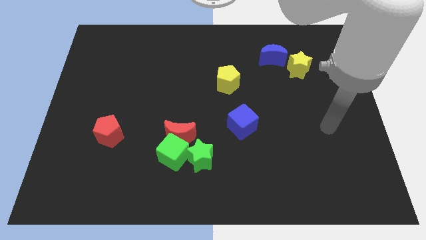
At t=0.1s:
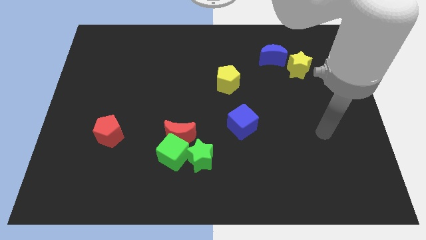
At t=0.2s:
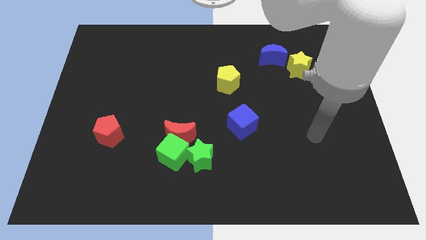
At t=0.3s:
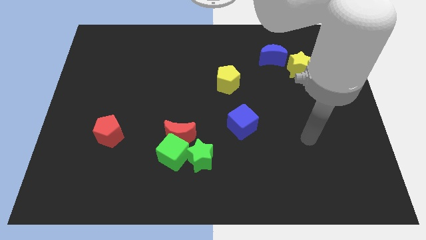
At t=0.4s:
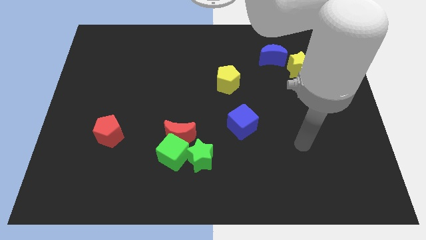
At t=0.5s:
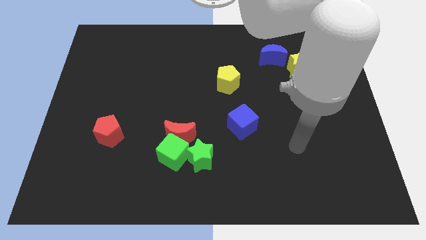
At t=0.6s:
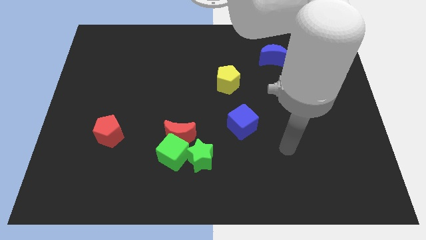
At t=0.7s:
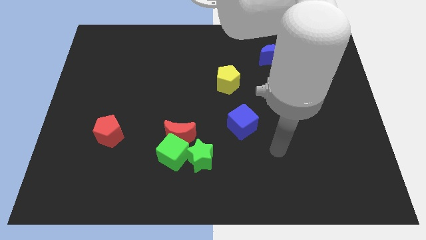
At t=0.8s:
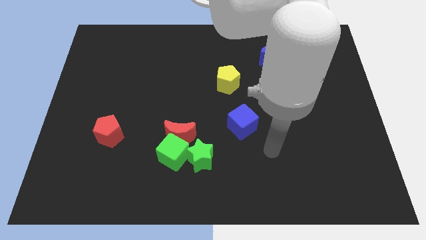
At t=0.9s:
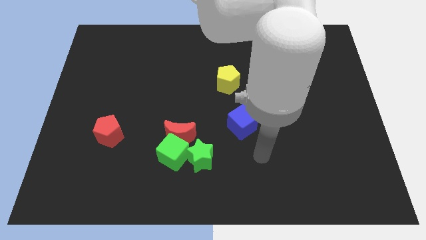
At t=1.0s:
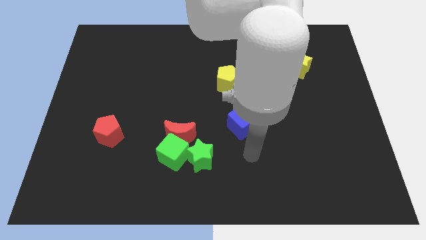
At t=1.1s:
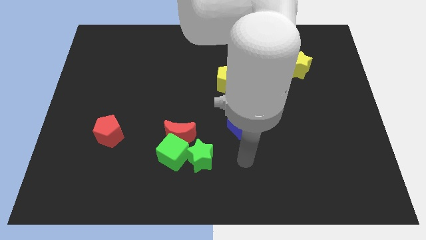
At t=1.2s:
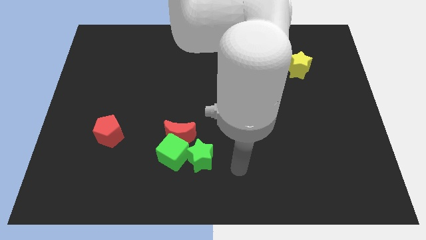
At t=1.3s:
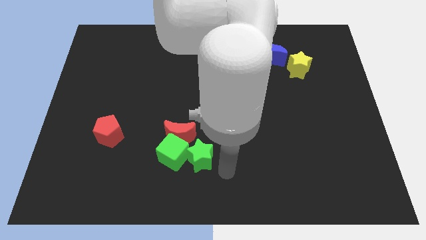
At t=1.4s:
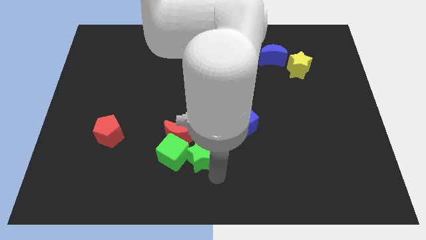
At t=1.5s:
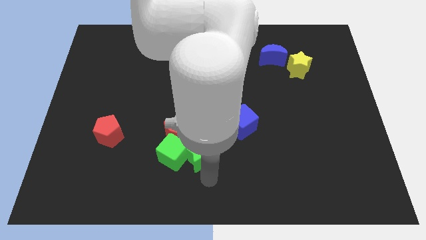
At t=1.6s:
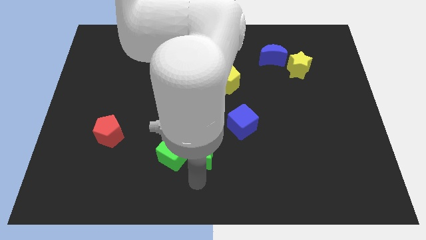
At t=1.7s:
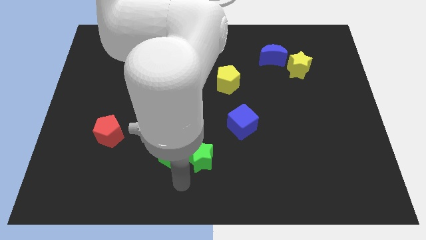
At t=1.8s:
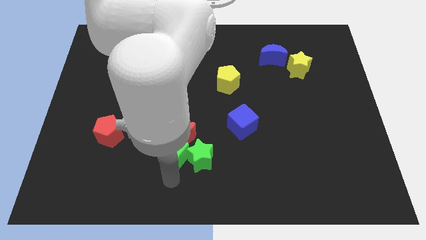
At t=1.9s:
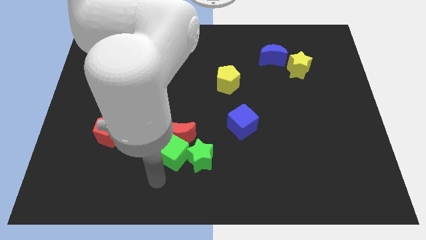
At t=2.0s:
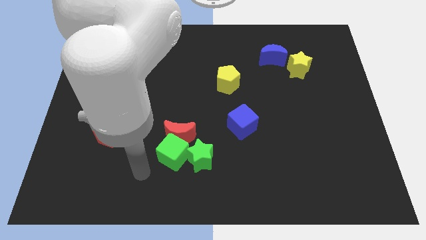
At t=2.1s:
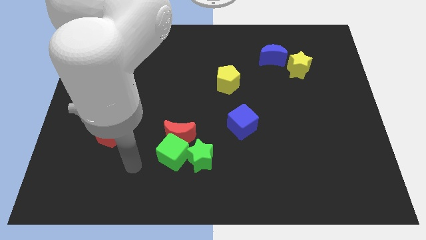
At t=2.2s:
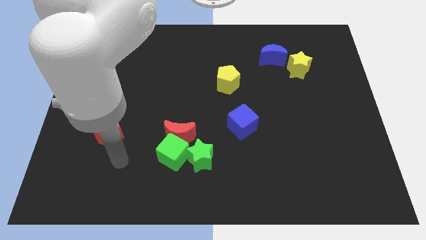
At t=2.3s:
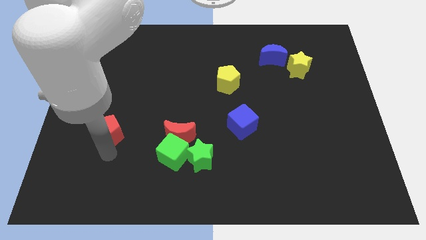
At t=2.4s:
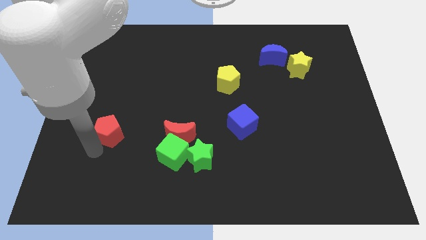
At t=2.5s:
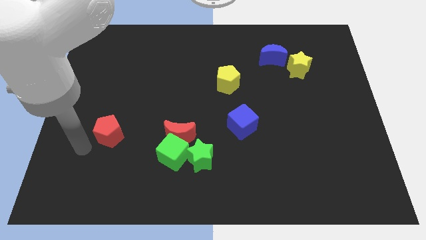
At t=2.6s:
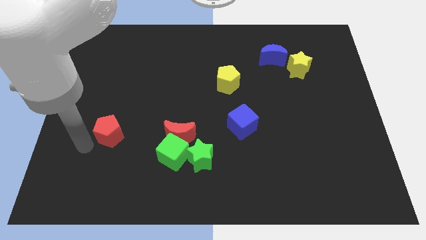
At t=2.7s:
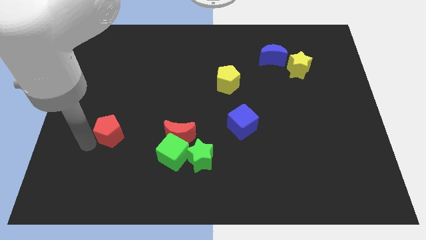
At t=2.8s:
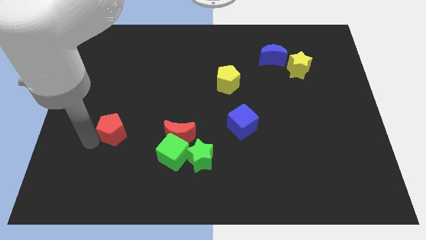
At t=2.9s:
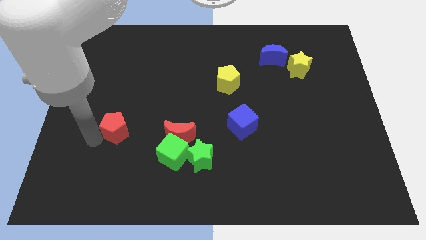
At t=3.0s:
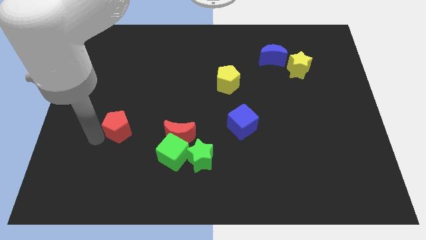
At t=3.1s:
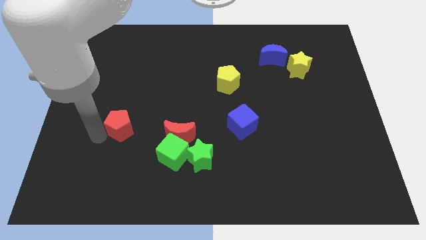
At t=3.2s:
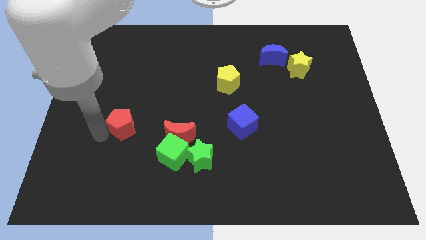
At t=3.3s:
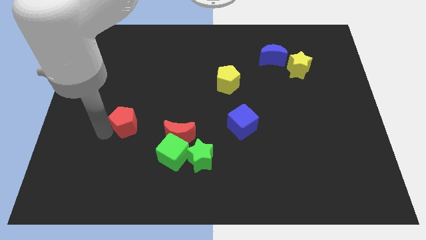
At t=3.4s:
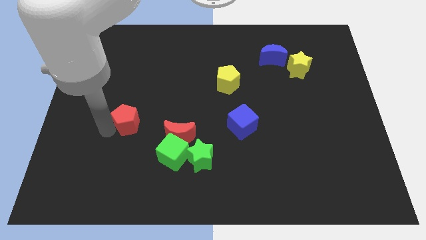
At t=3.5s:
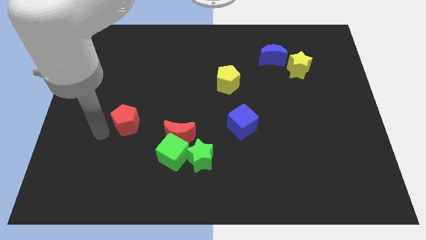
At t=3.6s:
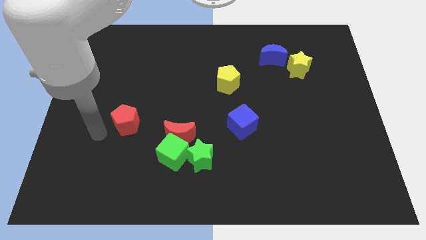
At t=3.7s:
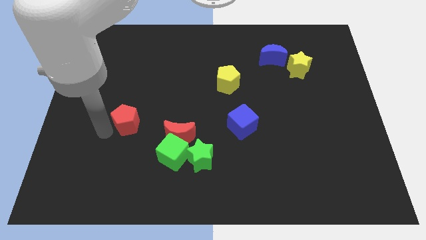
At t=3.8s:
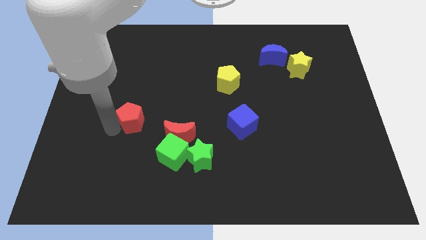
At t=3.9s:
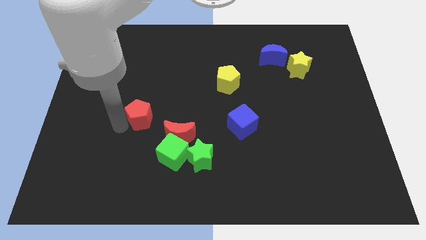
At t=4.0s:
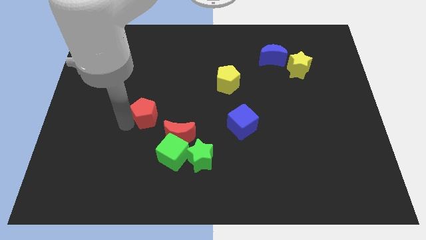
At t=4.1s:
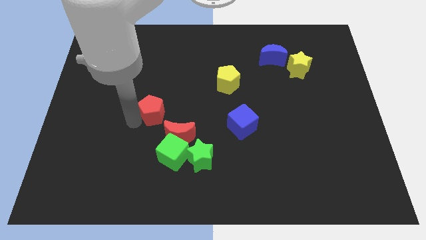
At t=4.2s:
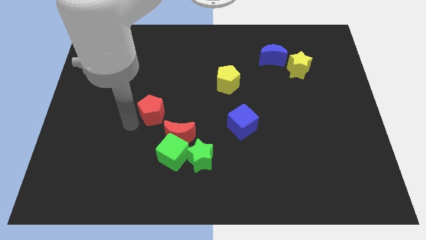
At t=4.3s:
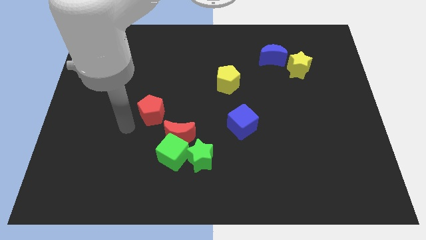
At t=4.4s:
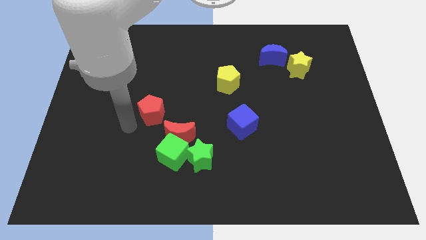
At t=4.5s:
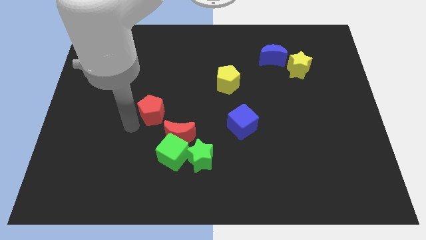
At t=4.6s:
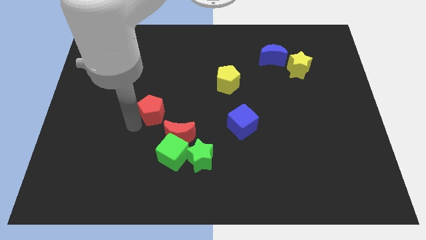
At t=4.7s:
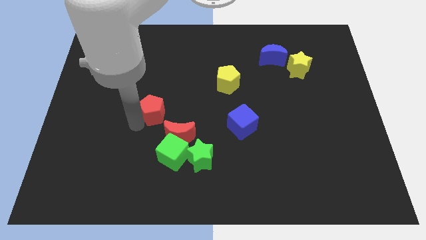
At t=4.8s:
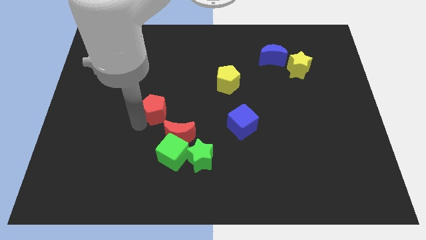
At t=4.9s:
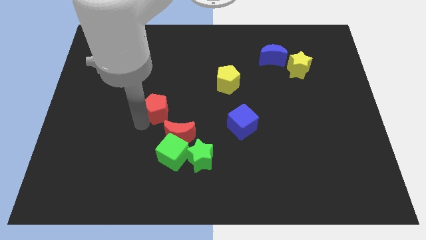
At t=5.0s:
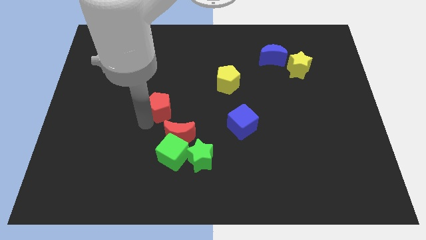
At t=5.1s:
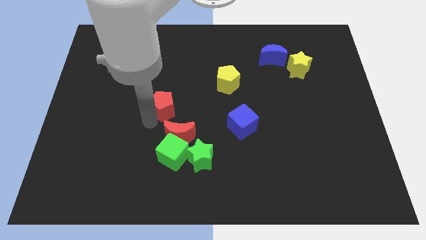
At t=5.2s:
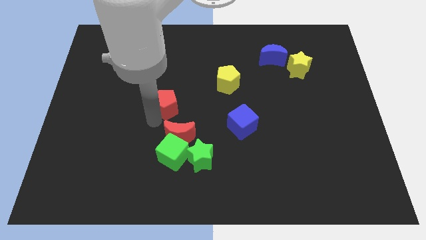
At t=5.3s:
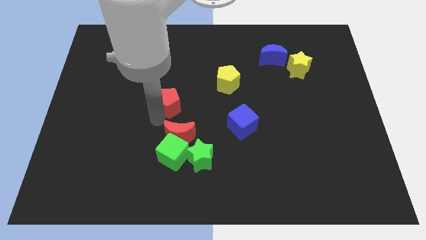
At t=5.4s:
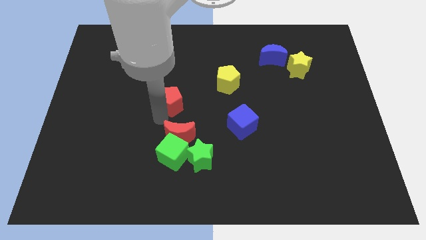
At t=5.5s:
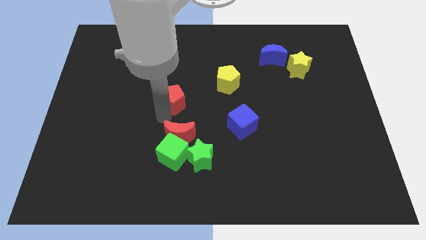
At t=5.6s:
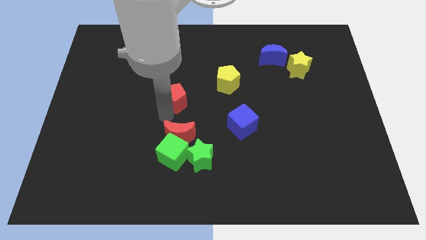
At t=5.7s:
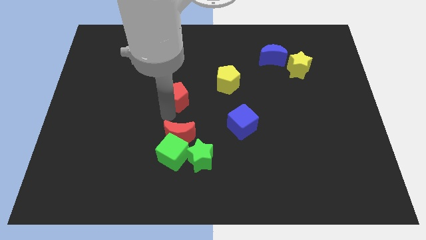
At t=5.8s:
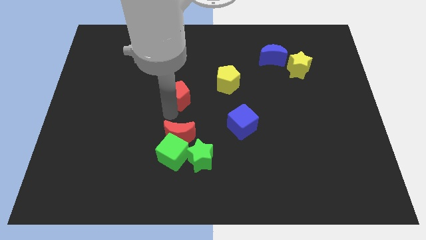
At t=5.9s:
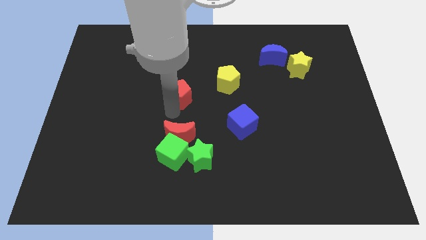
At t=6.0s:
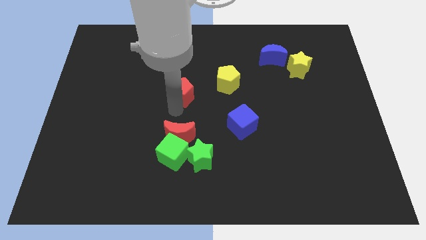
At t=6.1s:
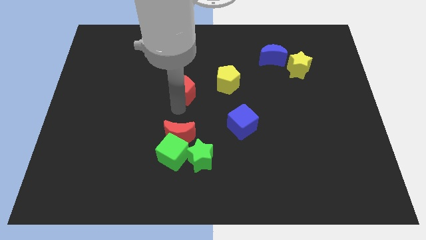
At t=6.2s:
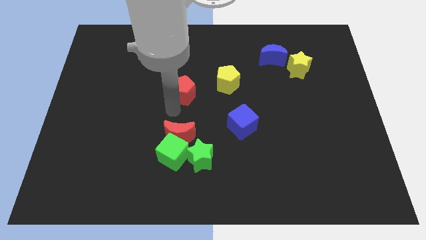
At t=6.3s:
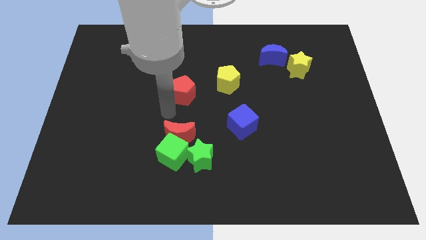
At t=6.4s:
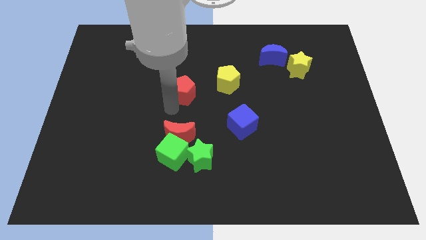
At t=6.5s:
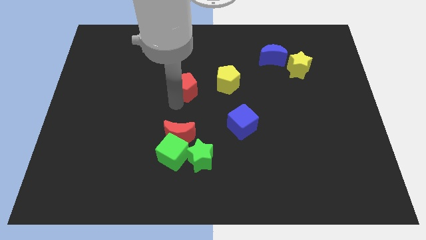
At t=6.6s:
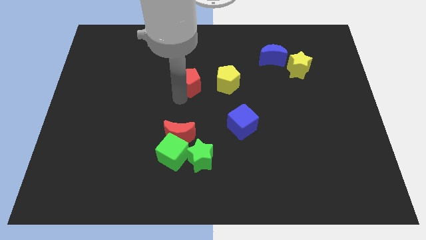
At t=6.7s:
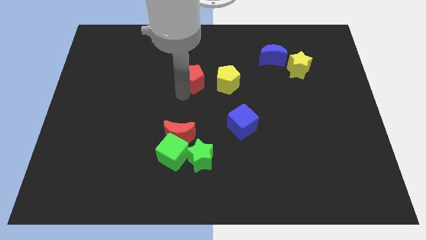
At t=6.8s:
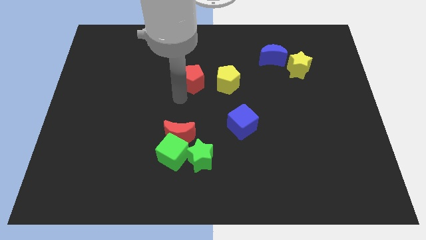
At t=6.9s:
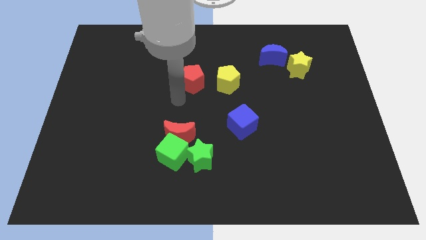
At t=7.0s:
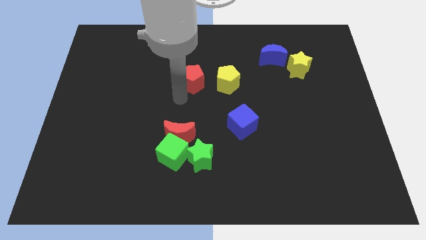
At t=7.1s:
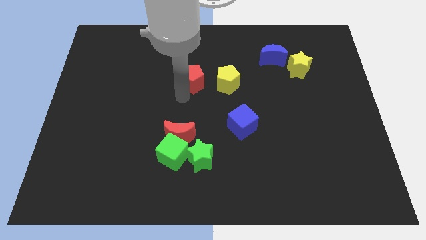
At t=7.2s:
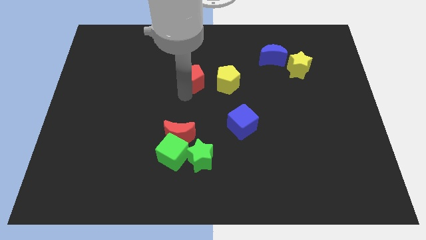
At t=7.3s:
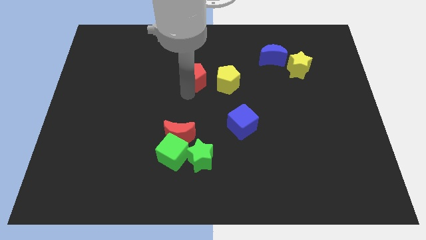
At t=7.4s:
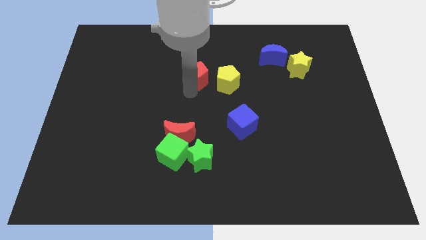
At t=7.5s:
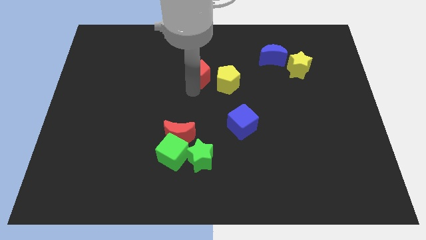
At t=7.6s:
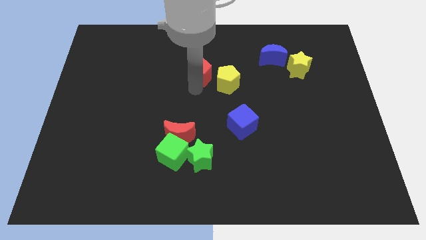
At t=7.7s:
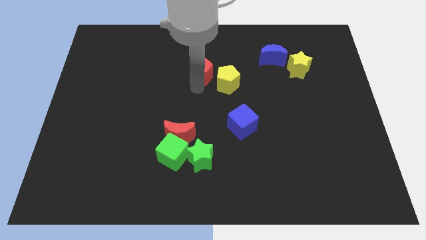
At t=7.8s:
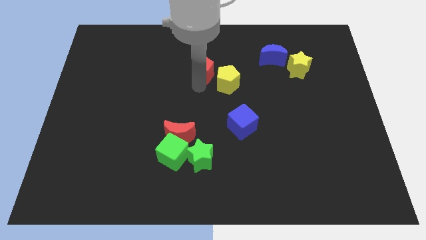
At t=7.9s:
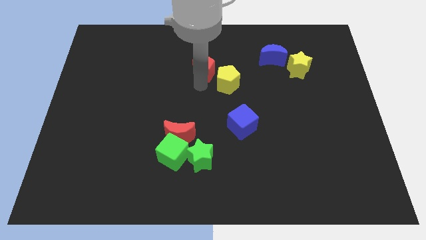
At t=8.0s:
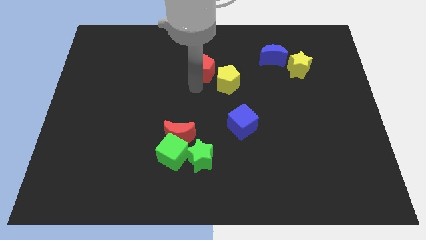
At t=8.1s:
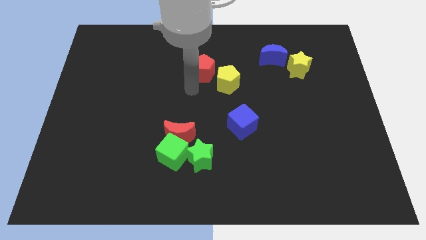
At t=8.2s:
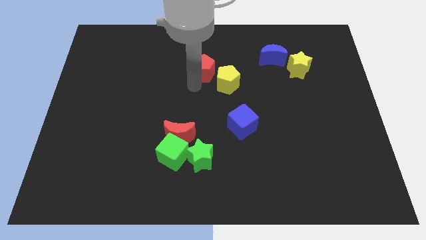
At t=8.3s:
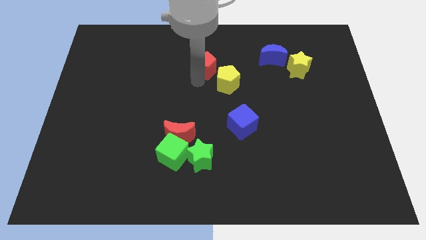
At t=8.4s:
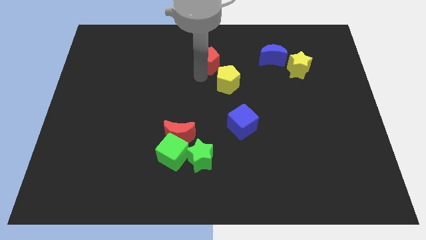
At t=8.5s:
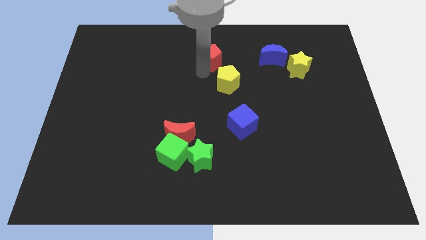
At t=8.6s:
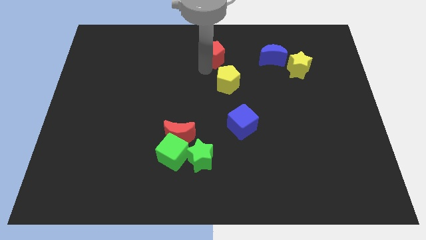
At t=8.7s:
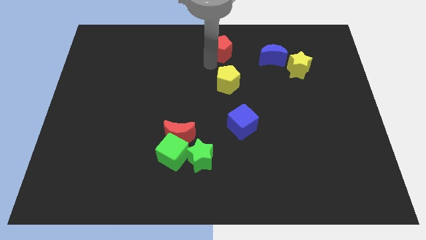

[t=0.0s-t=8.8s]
move the red pentagon to the towards your base
